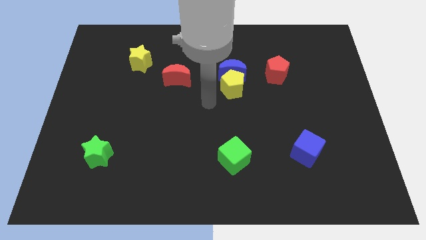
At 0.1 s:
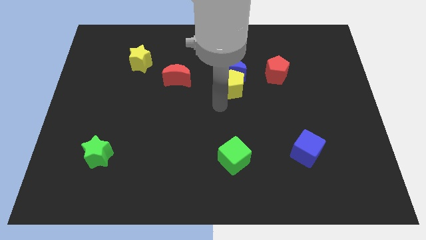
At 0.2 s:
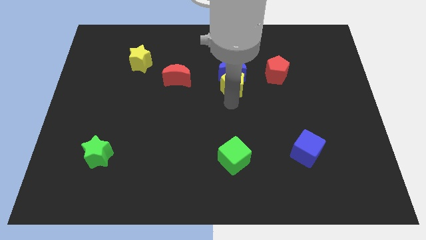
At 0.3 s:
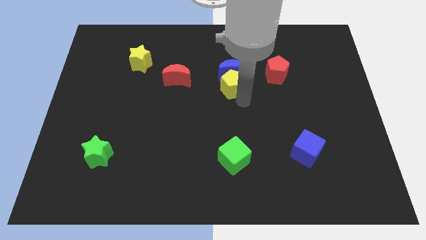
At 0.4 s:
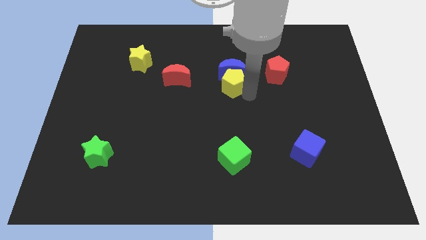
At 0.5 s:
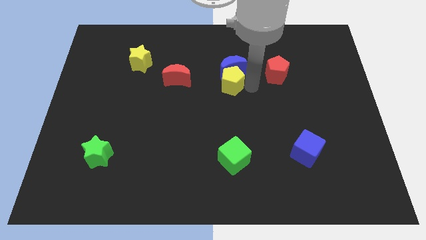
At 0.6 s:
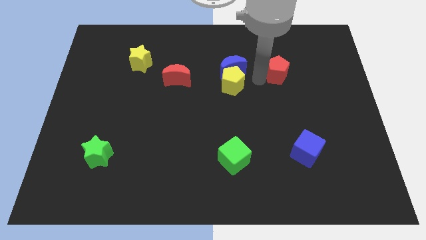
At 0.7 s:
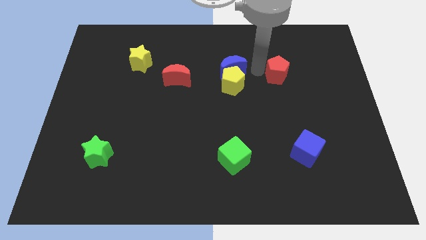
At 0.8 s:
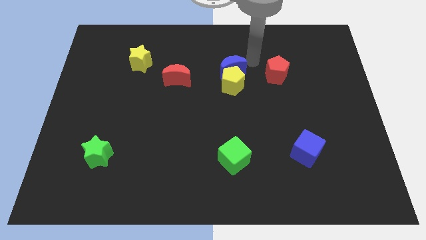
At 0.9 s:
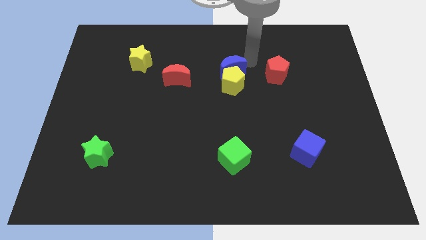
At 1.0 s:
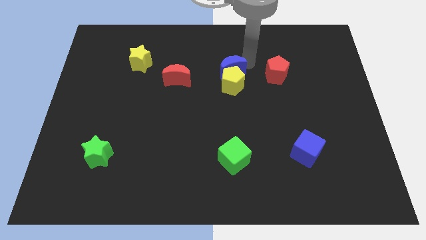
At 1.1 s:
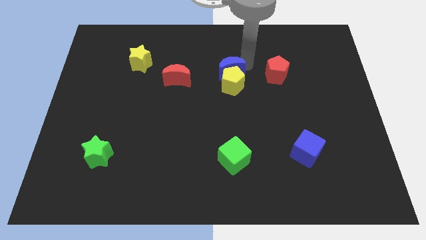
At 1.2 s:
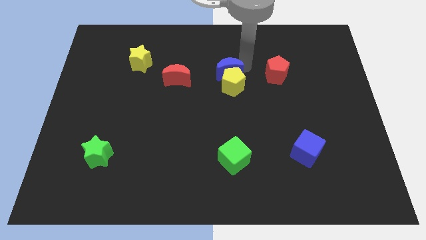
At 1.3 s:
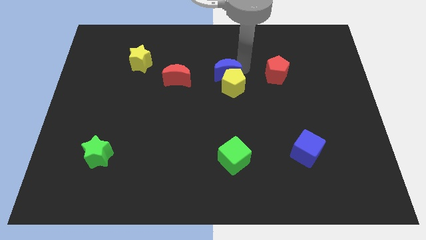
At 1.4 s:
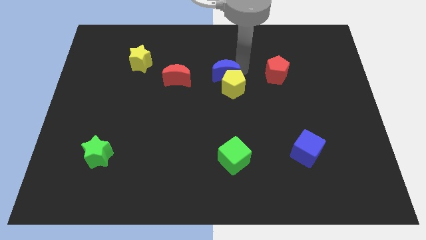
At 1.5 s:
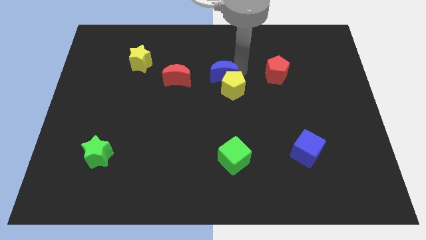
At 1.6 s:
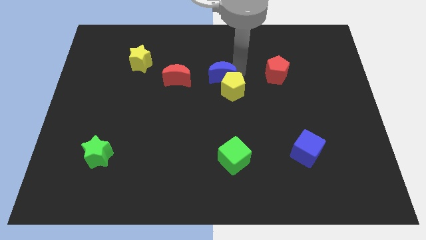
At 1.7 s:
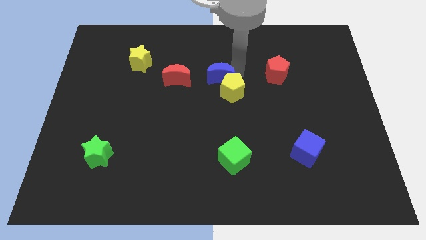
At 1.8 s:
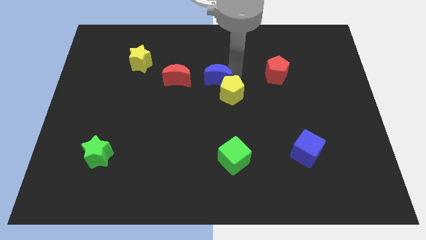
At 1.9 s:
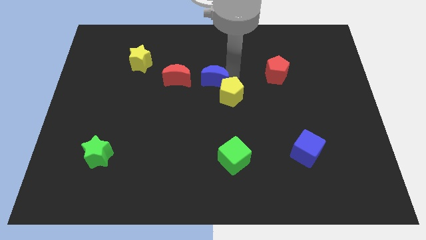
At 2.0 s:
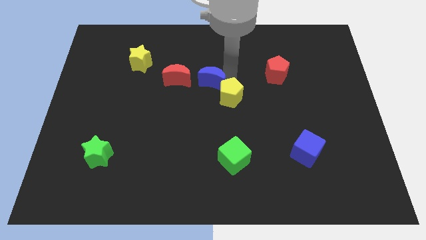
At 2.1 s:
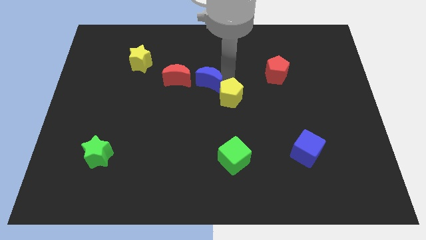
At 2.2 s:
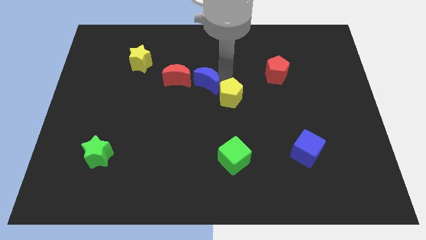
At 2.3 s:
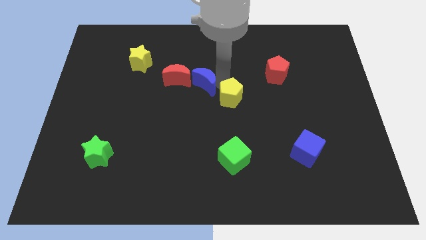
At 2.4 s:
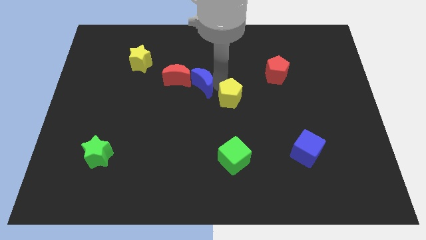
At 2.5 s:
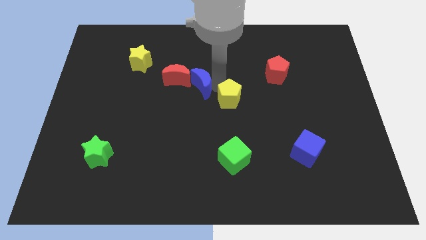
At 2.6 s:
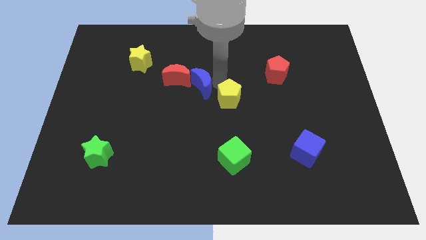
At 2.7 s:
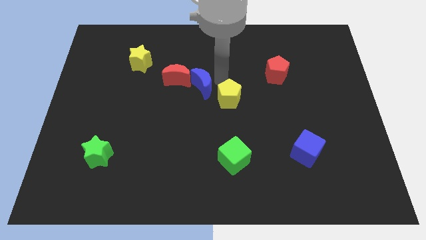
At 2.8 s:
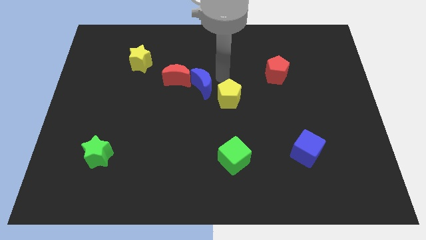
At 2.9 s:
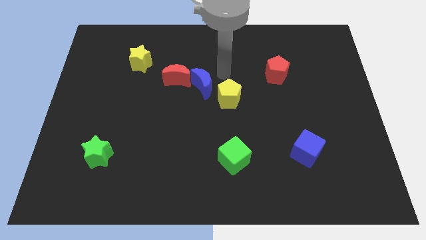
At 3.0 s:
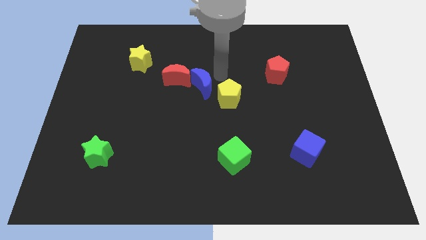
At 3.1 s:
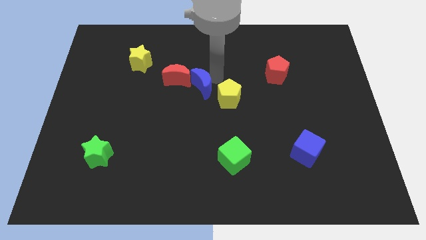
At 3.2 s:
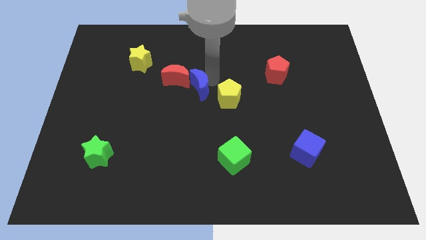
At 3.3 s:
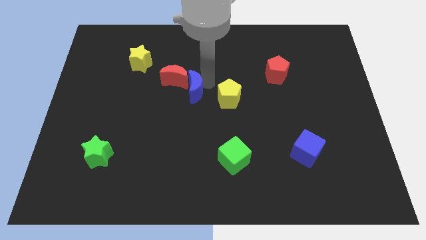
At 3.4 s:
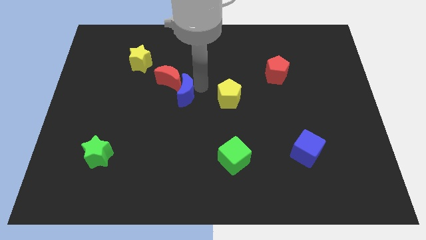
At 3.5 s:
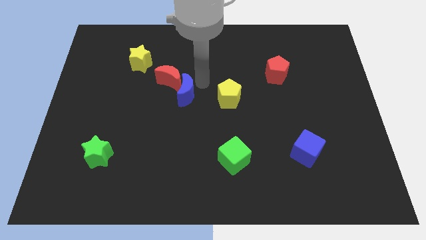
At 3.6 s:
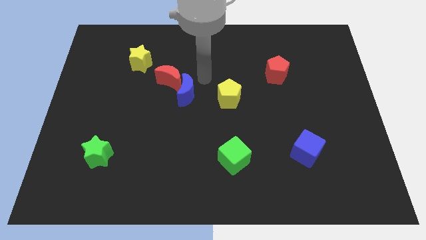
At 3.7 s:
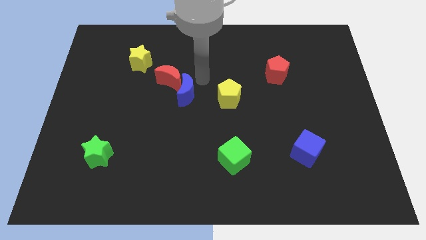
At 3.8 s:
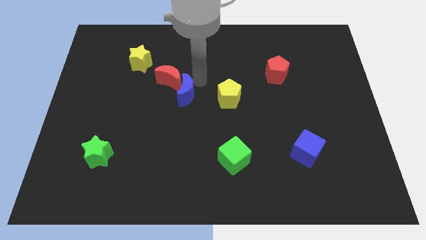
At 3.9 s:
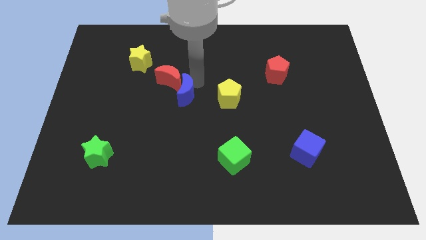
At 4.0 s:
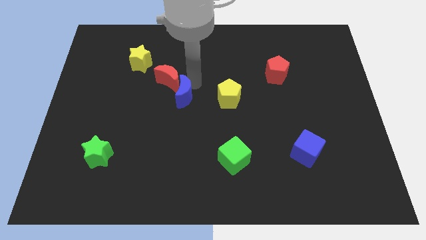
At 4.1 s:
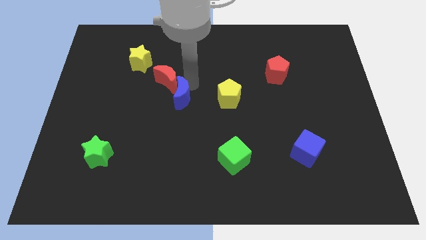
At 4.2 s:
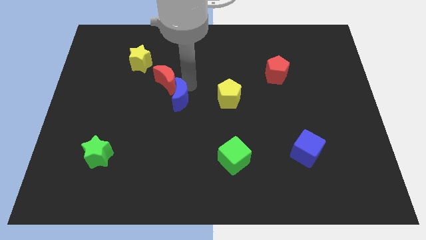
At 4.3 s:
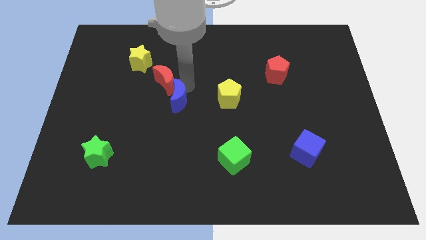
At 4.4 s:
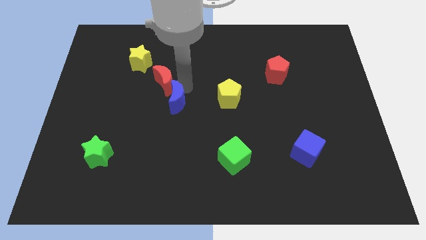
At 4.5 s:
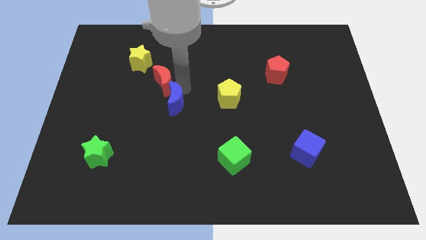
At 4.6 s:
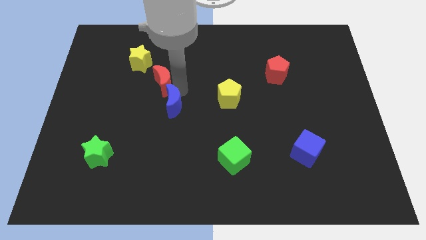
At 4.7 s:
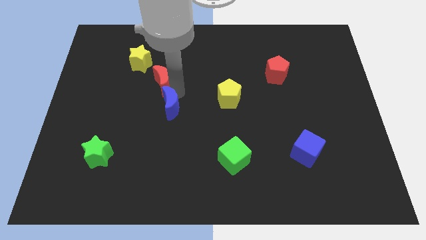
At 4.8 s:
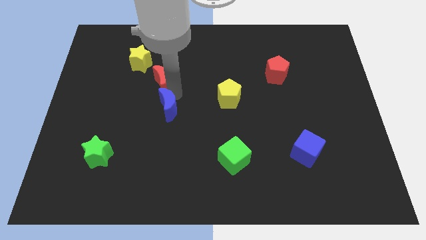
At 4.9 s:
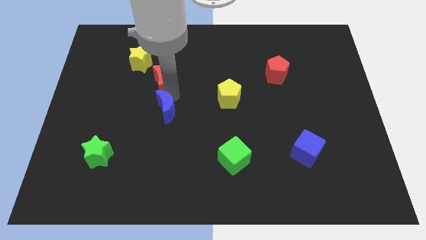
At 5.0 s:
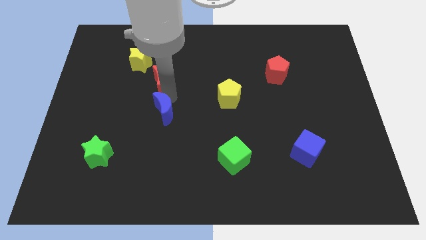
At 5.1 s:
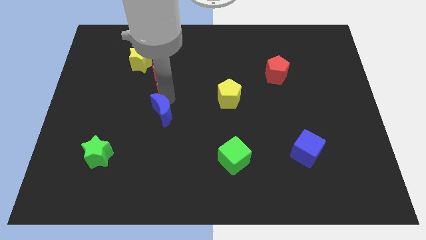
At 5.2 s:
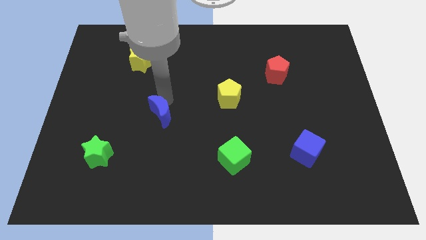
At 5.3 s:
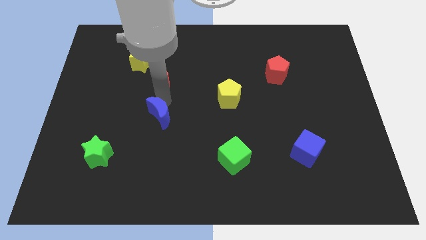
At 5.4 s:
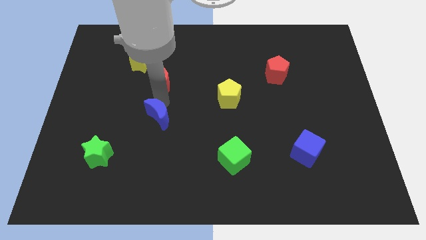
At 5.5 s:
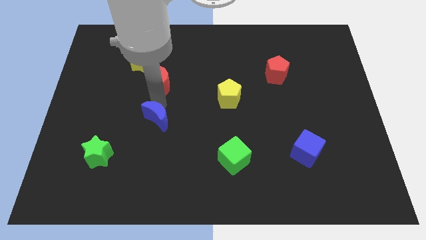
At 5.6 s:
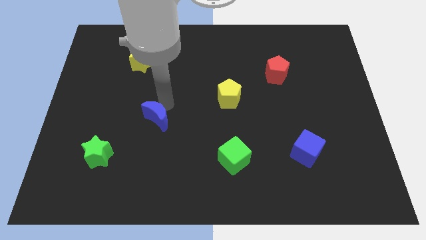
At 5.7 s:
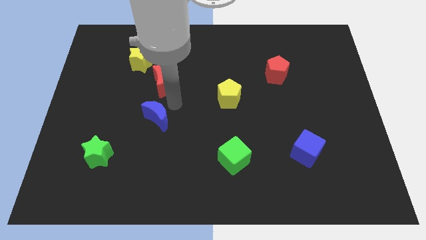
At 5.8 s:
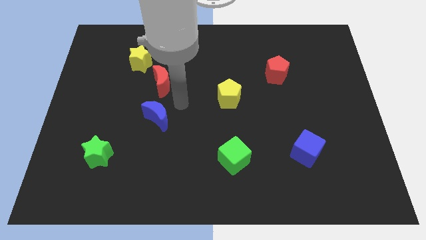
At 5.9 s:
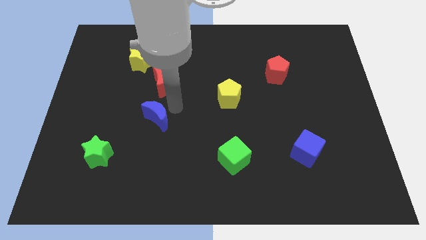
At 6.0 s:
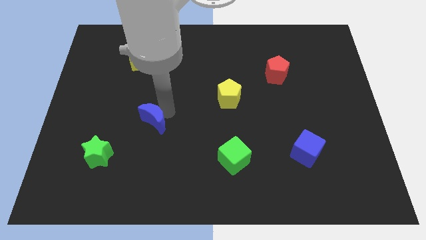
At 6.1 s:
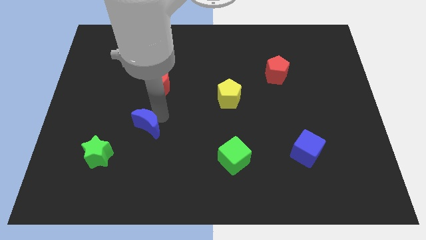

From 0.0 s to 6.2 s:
slide the blue moon to the top right side of the green star

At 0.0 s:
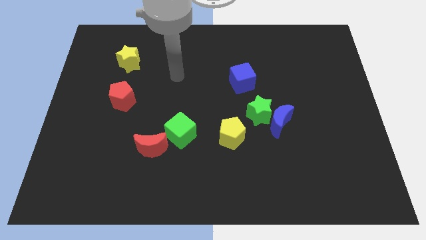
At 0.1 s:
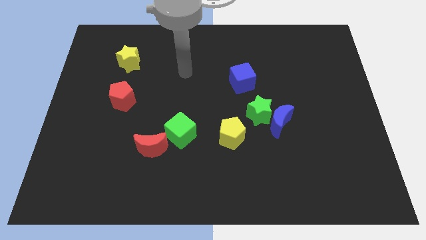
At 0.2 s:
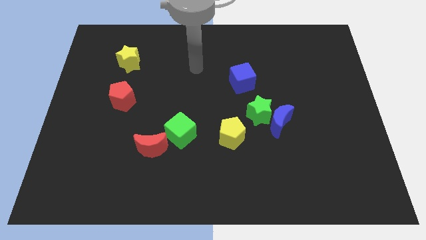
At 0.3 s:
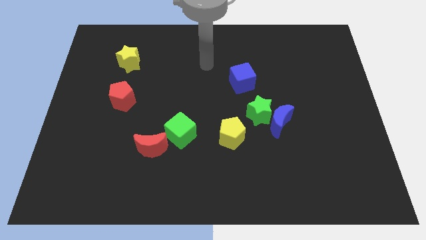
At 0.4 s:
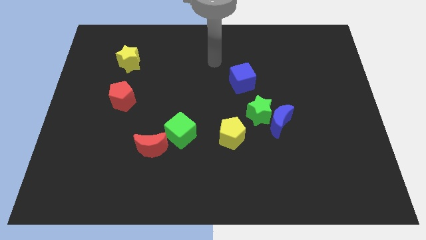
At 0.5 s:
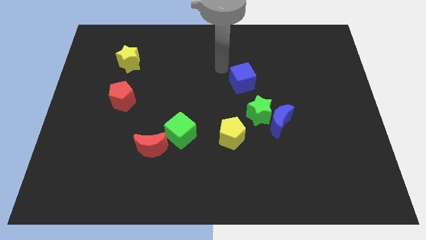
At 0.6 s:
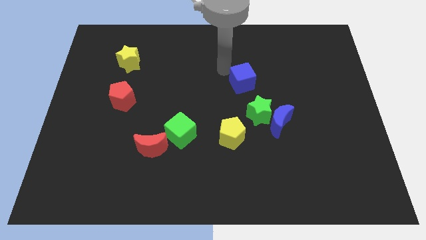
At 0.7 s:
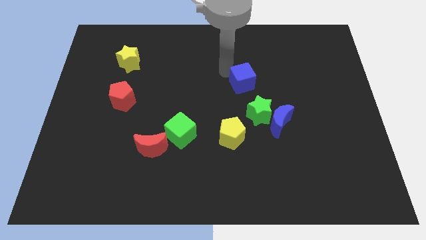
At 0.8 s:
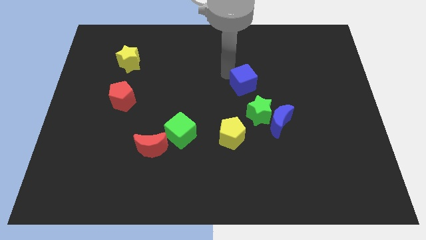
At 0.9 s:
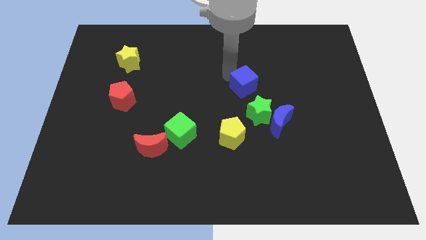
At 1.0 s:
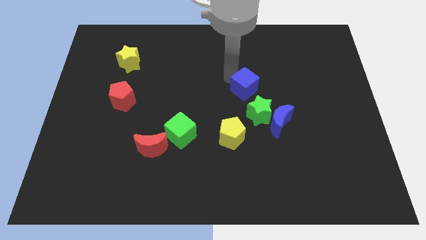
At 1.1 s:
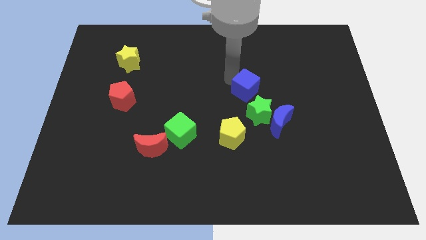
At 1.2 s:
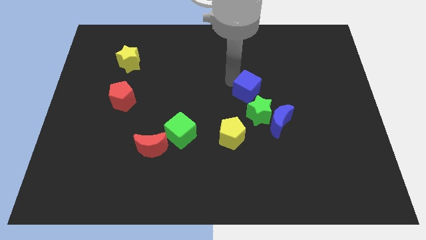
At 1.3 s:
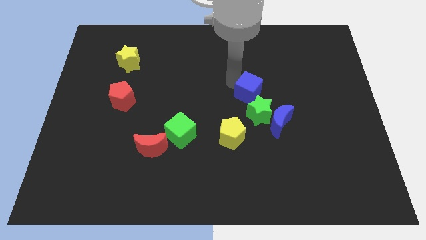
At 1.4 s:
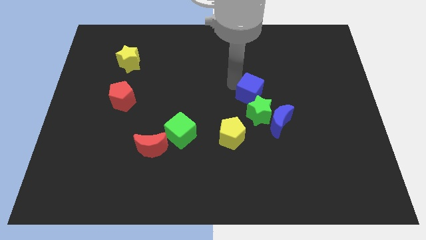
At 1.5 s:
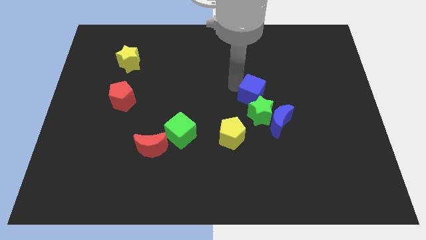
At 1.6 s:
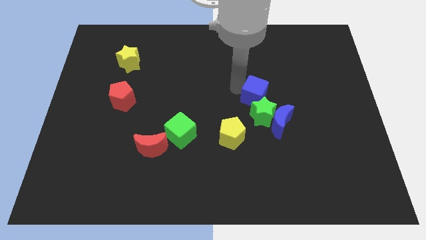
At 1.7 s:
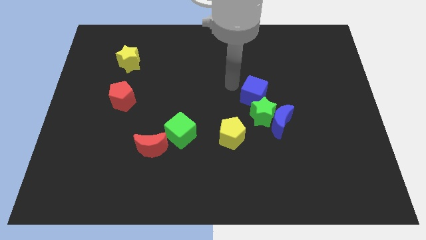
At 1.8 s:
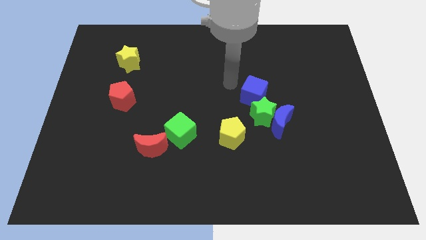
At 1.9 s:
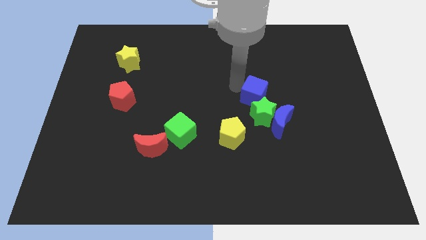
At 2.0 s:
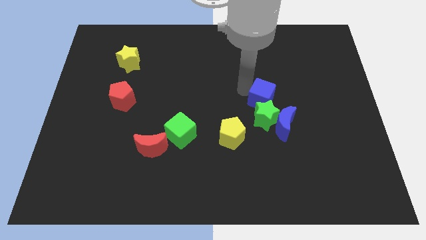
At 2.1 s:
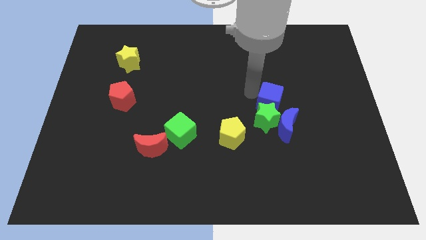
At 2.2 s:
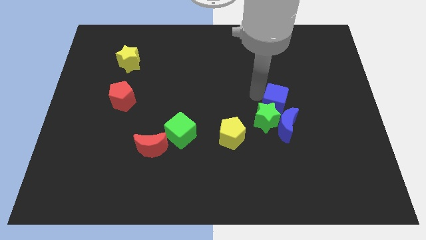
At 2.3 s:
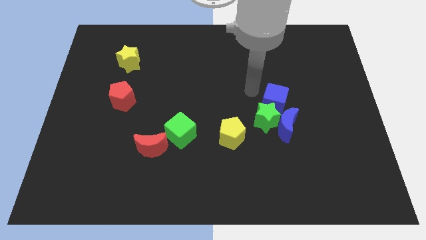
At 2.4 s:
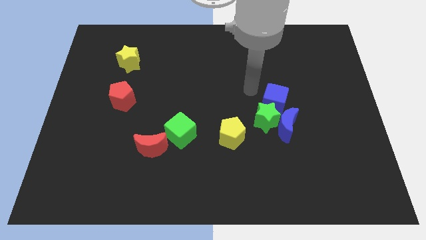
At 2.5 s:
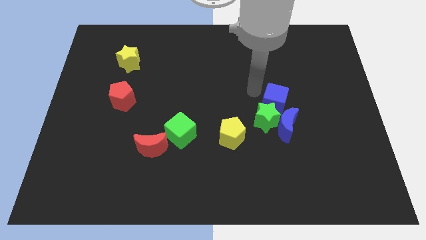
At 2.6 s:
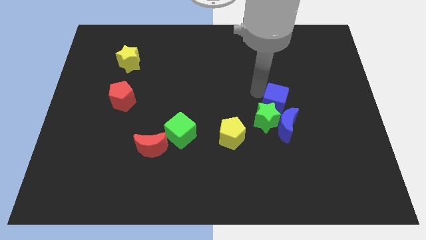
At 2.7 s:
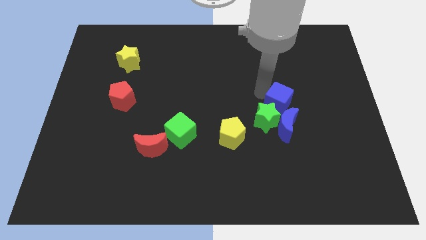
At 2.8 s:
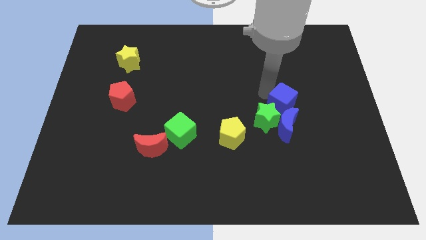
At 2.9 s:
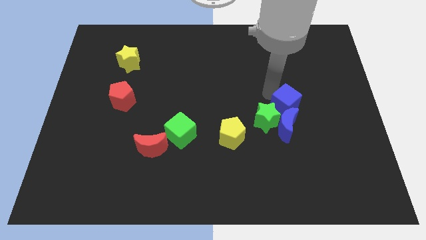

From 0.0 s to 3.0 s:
move the blue cube to the right side of the green star
